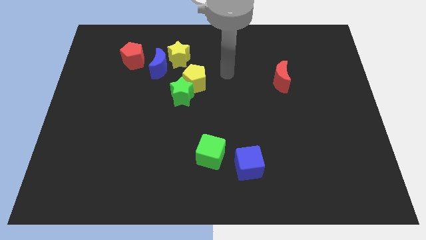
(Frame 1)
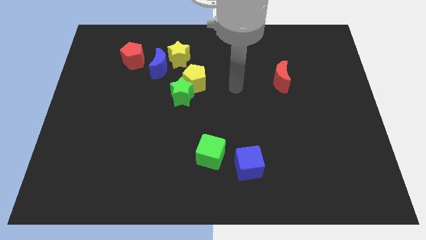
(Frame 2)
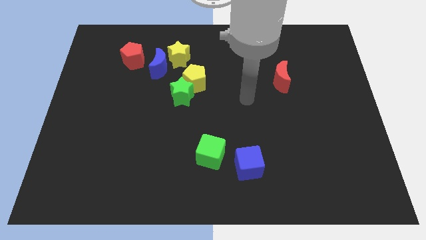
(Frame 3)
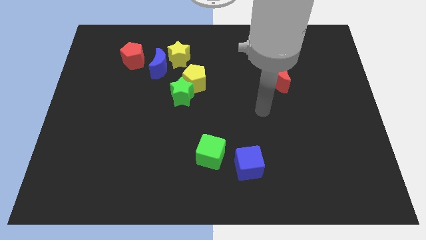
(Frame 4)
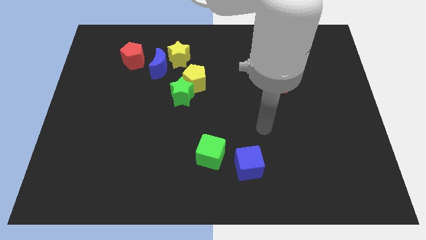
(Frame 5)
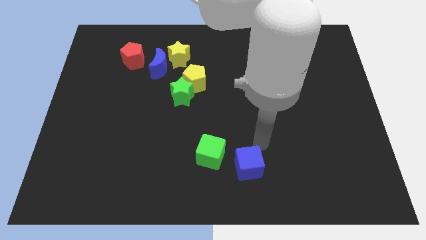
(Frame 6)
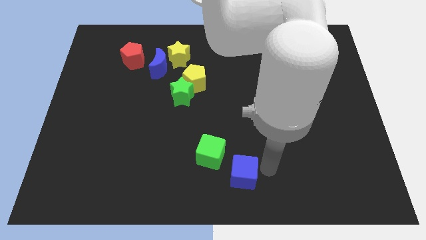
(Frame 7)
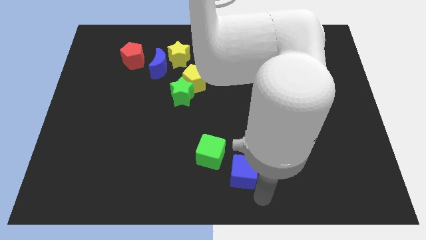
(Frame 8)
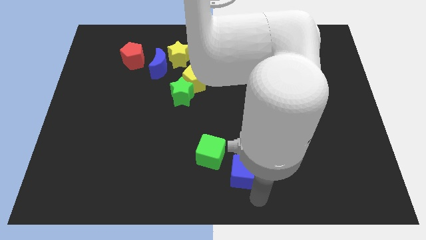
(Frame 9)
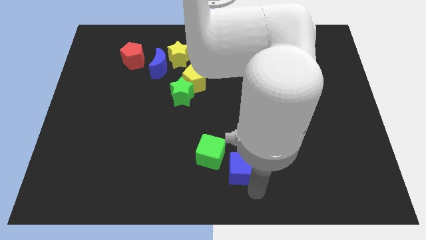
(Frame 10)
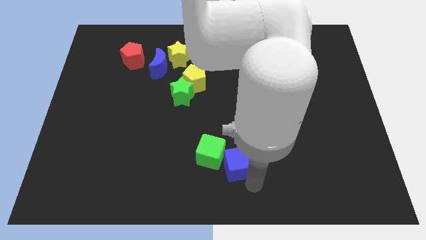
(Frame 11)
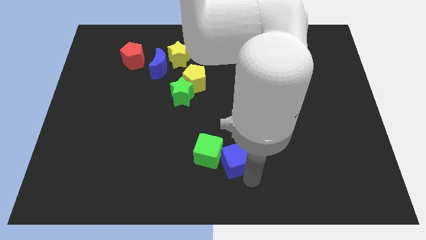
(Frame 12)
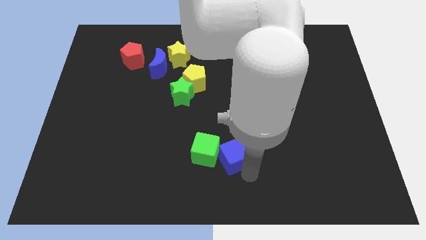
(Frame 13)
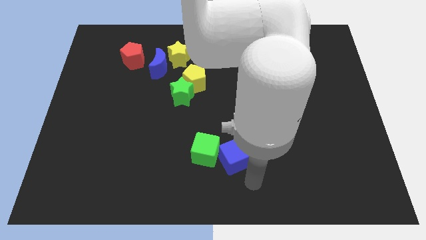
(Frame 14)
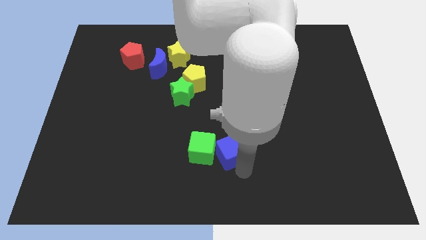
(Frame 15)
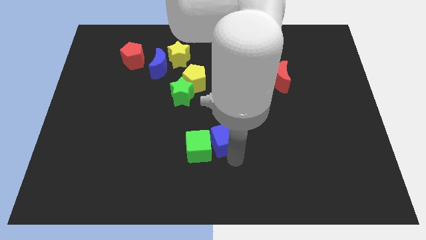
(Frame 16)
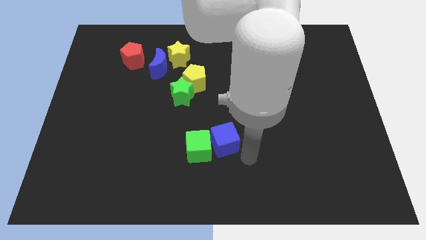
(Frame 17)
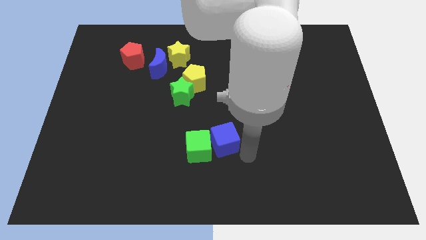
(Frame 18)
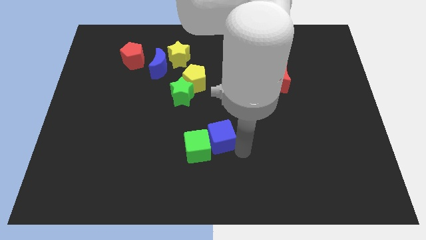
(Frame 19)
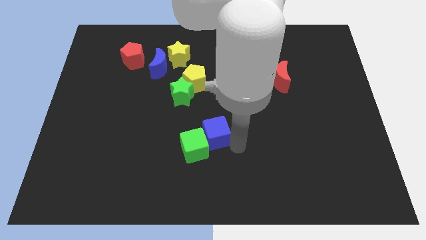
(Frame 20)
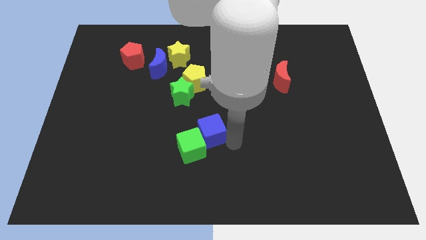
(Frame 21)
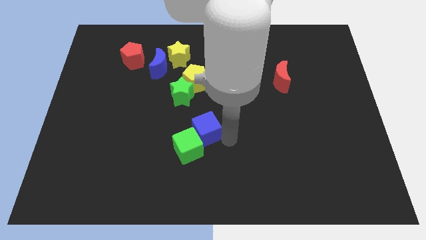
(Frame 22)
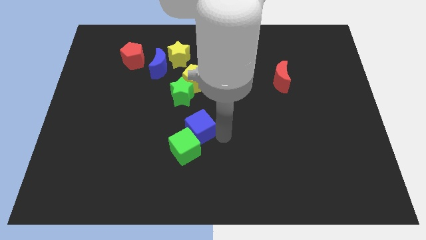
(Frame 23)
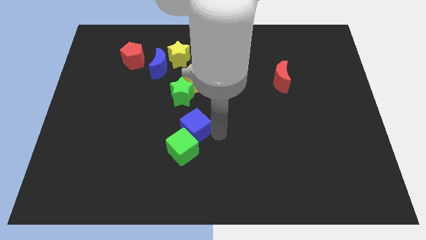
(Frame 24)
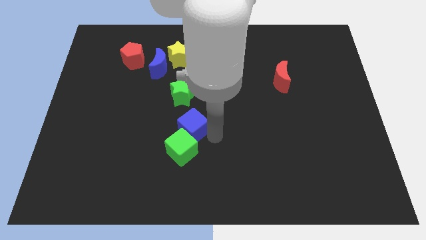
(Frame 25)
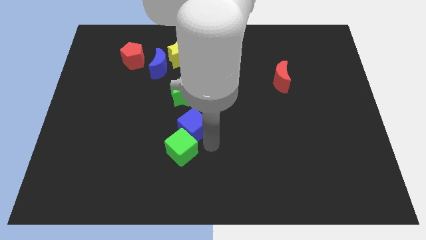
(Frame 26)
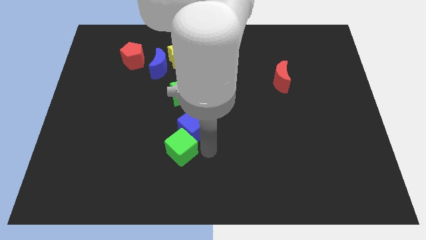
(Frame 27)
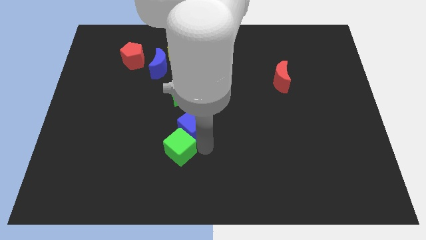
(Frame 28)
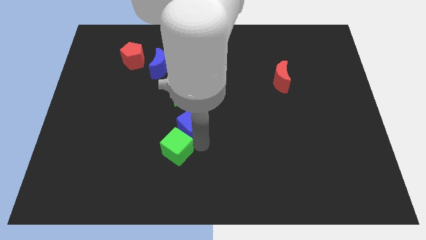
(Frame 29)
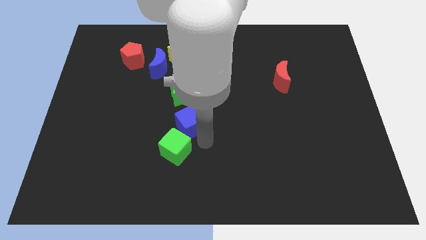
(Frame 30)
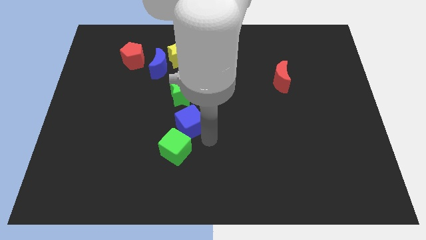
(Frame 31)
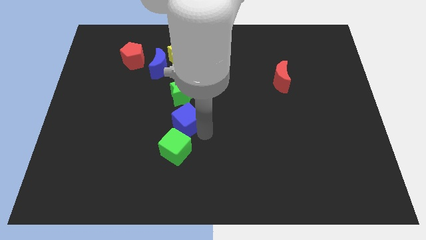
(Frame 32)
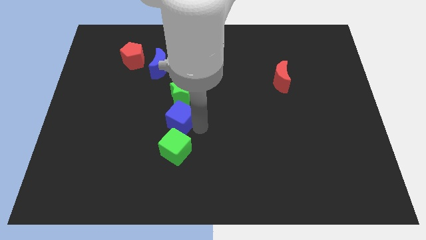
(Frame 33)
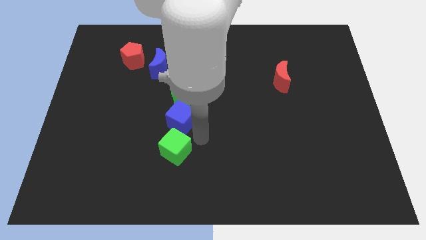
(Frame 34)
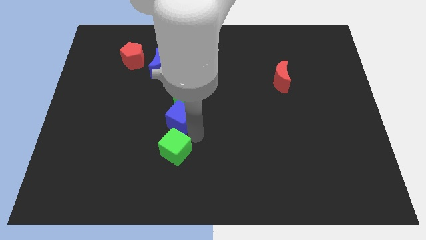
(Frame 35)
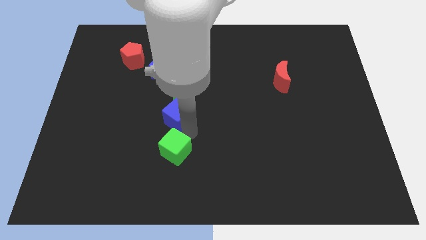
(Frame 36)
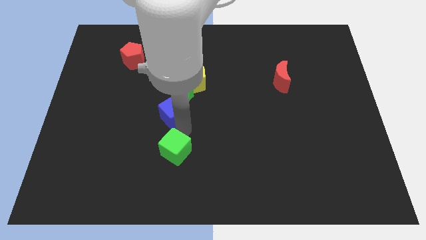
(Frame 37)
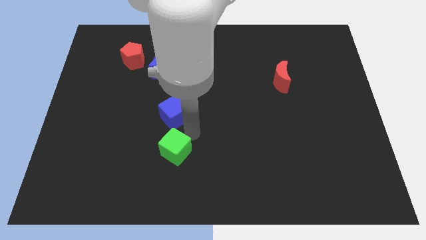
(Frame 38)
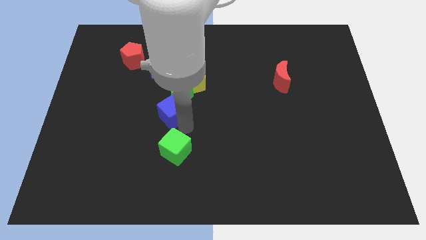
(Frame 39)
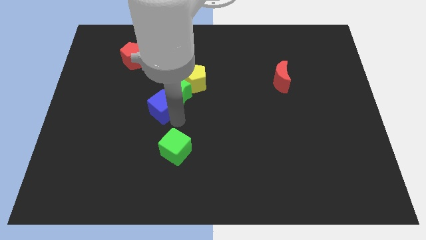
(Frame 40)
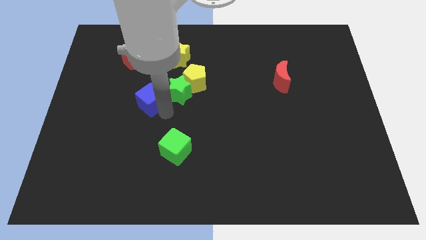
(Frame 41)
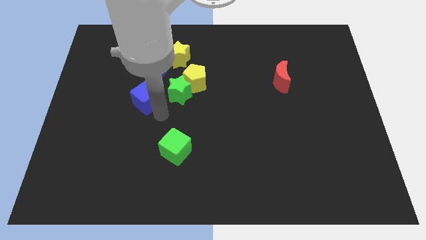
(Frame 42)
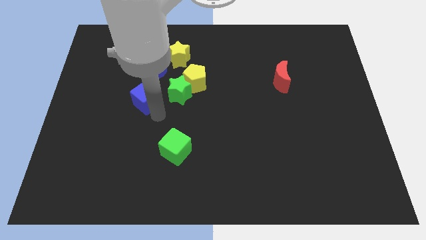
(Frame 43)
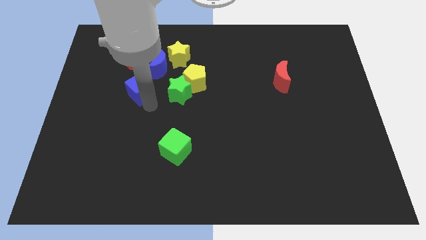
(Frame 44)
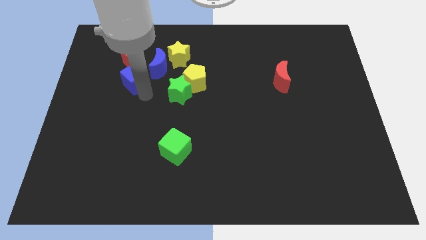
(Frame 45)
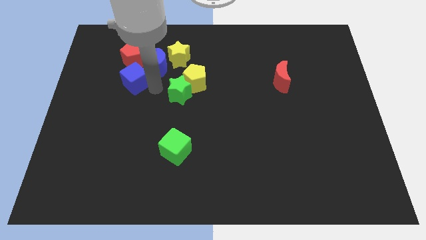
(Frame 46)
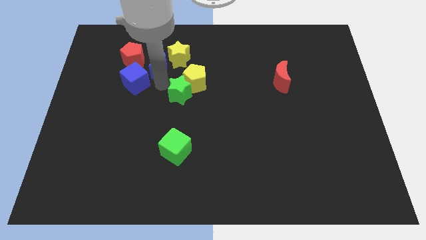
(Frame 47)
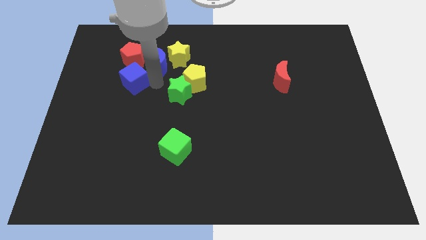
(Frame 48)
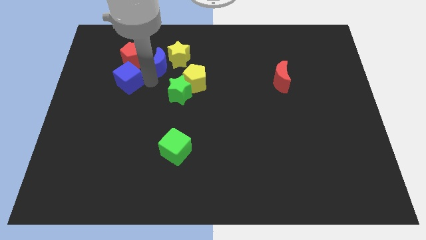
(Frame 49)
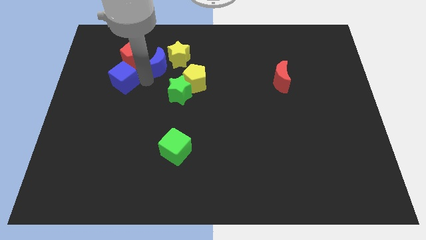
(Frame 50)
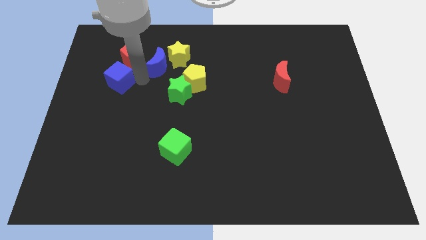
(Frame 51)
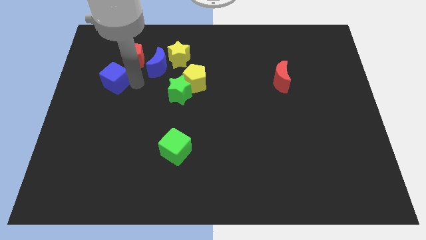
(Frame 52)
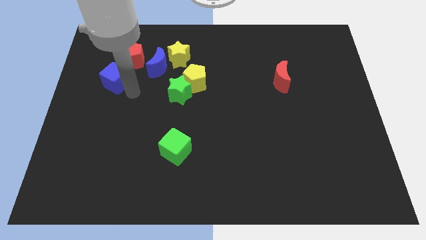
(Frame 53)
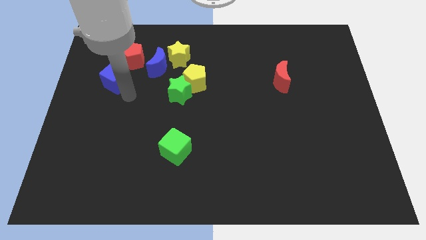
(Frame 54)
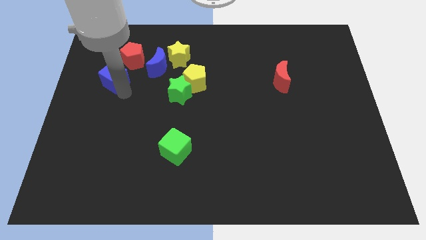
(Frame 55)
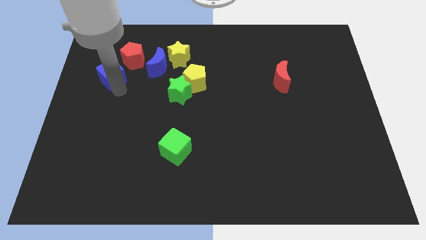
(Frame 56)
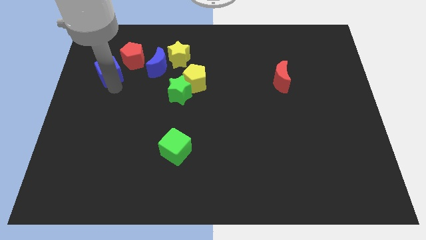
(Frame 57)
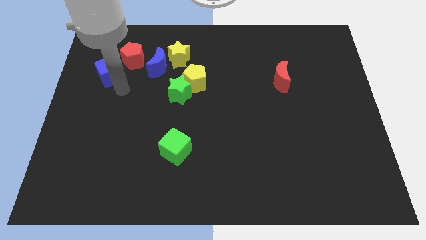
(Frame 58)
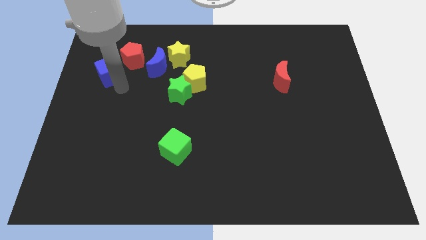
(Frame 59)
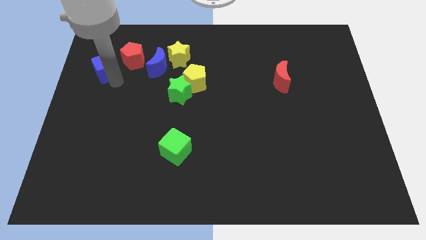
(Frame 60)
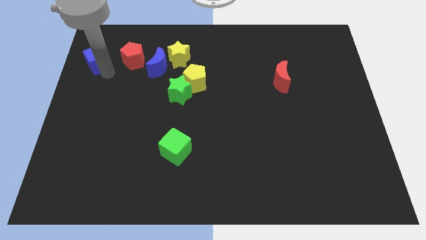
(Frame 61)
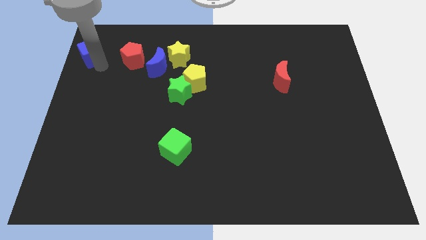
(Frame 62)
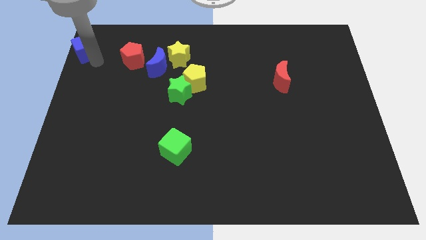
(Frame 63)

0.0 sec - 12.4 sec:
push the blue cube to the top left of the board
